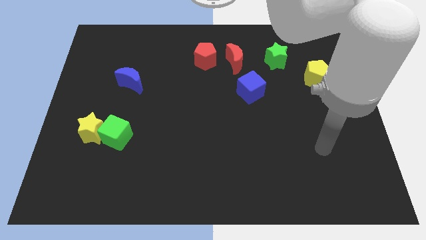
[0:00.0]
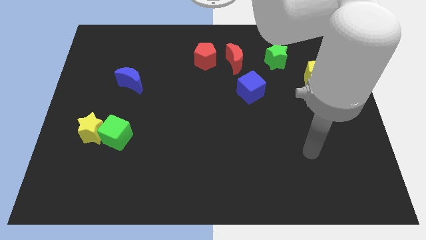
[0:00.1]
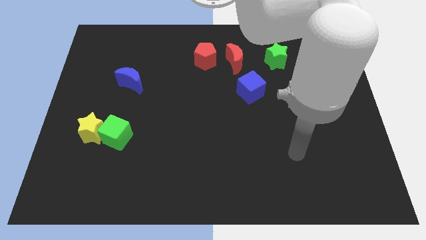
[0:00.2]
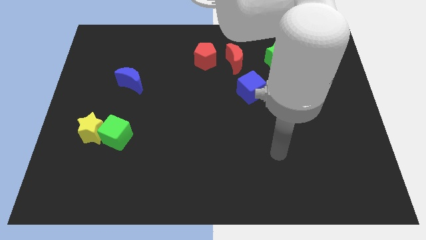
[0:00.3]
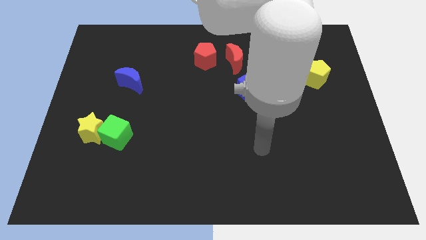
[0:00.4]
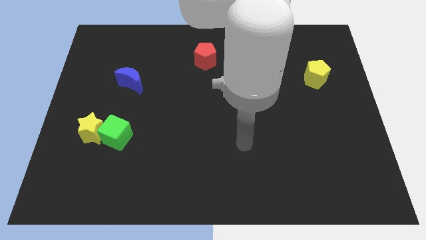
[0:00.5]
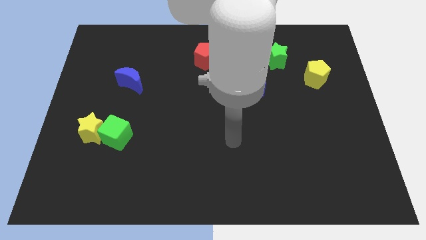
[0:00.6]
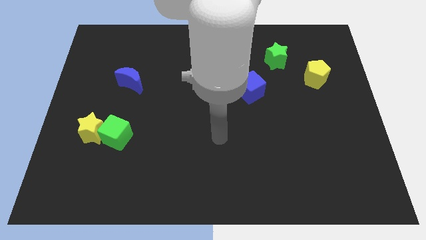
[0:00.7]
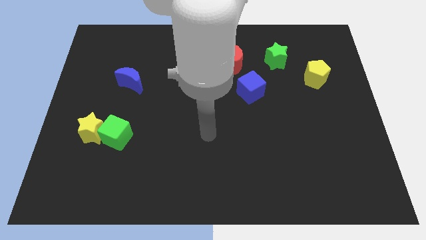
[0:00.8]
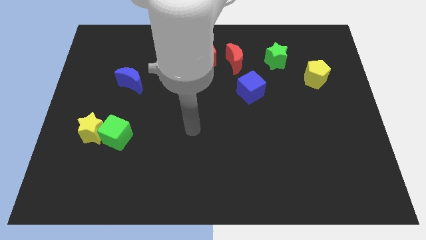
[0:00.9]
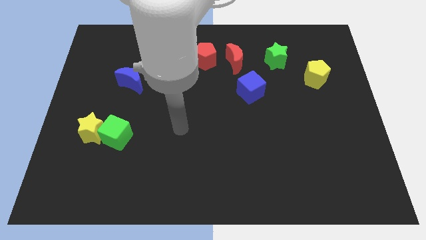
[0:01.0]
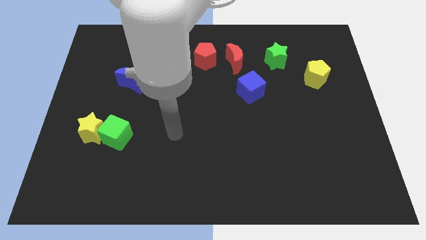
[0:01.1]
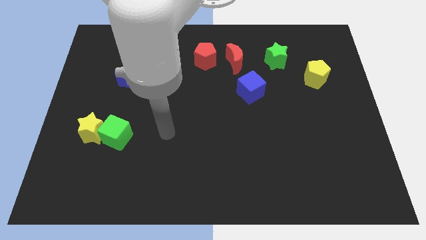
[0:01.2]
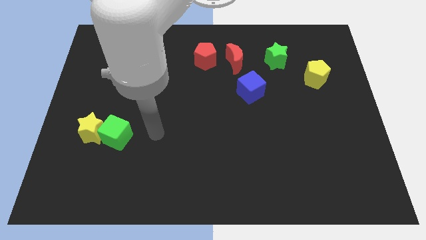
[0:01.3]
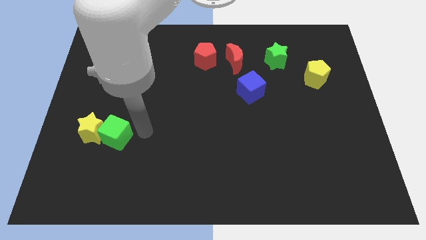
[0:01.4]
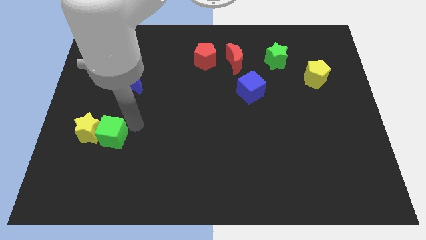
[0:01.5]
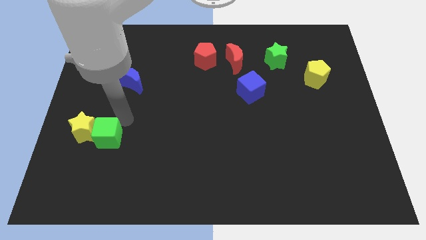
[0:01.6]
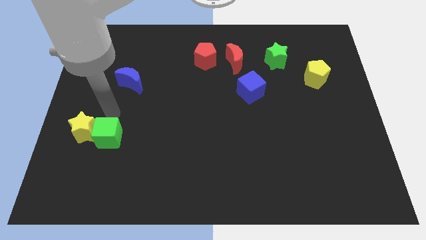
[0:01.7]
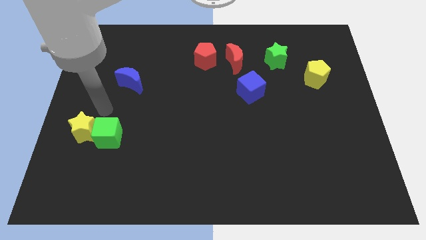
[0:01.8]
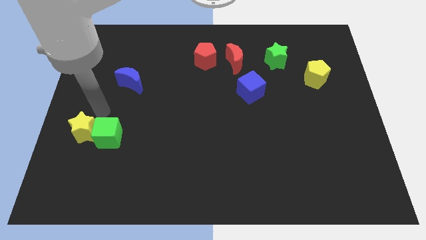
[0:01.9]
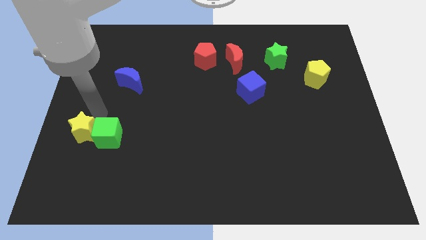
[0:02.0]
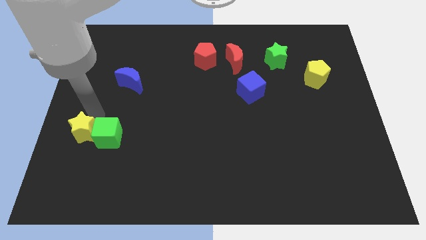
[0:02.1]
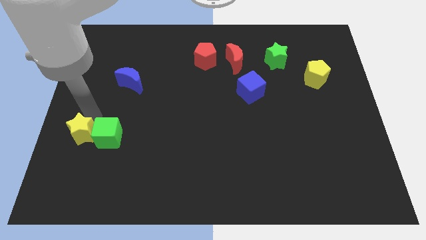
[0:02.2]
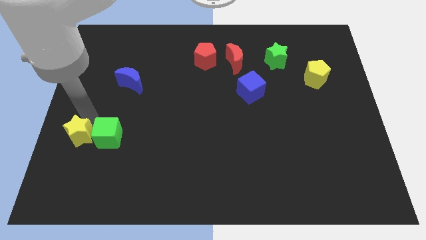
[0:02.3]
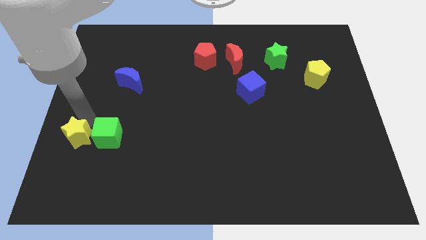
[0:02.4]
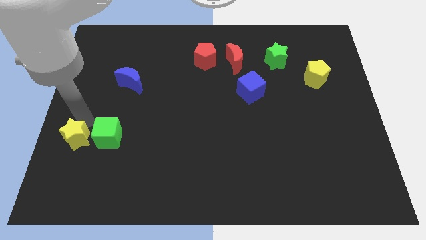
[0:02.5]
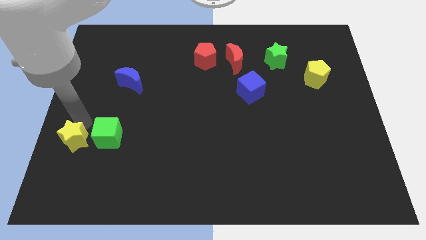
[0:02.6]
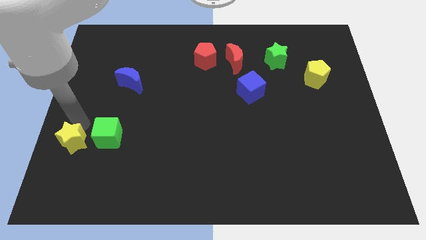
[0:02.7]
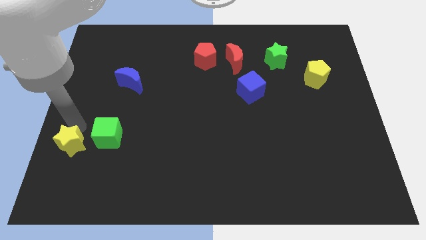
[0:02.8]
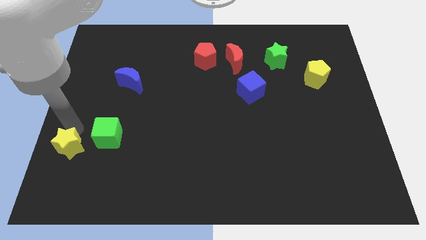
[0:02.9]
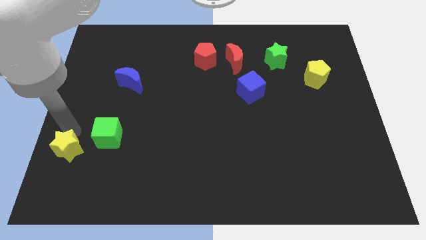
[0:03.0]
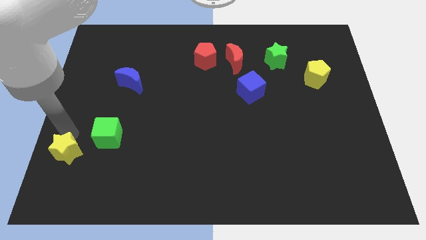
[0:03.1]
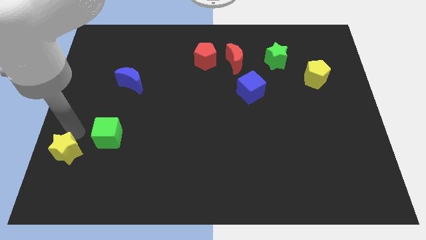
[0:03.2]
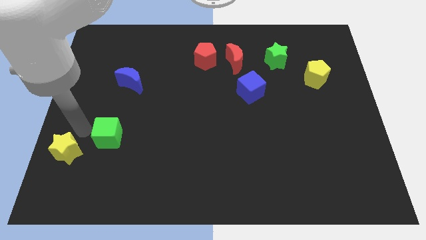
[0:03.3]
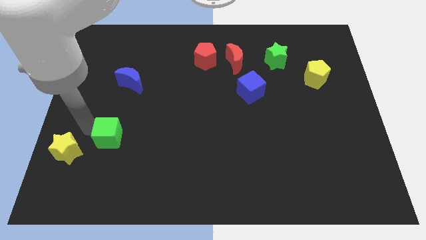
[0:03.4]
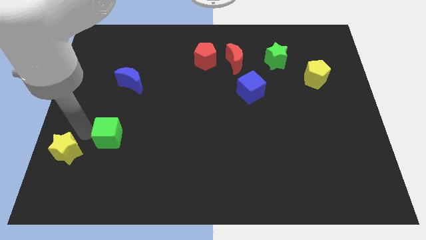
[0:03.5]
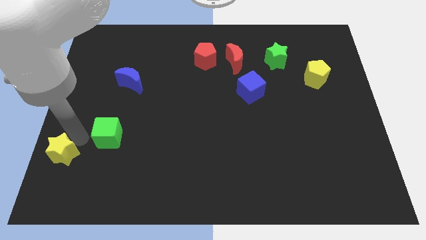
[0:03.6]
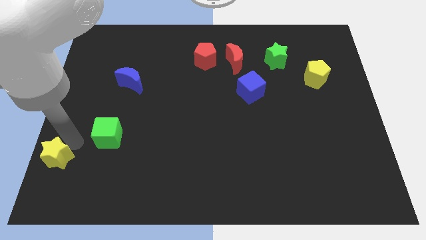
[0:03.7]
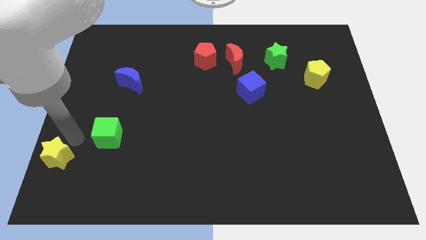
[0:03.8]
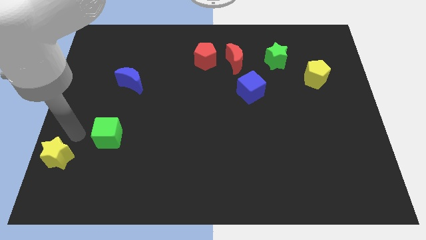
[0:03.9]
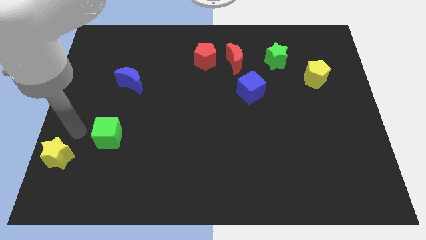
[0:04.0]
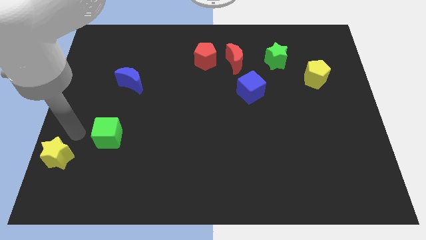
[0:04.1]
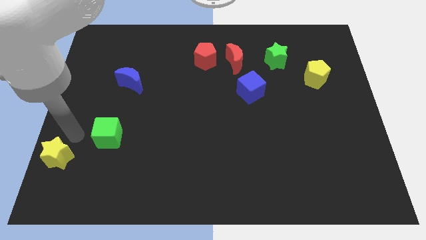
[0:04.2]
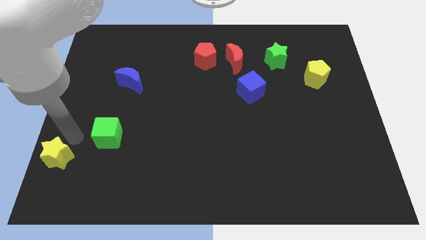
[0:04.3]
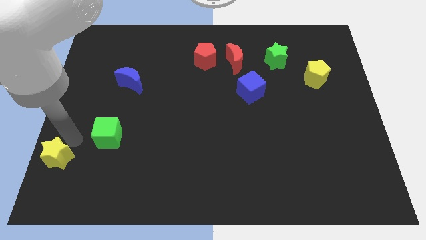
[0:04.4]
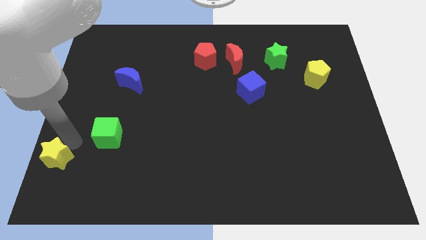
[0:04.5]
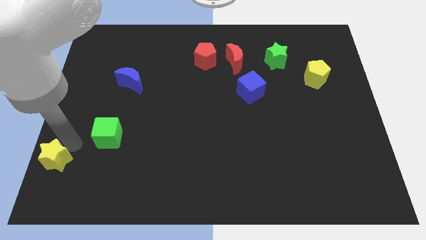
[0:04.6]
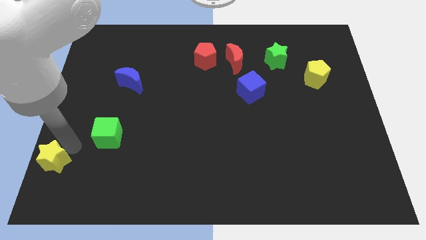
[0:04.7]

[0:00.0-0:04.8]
push the yellow star to the bottom left of the board

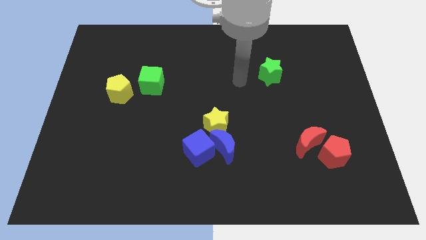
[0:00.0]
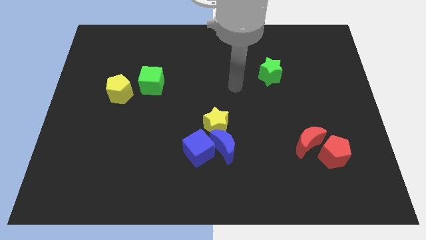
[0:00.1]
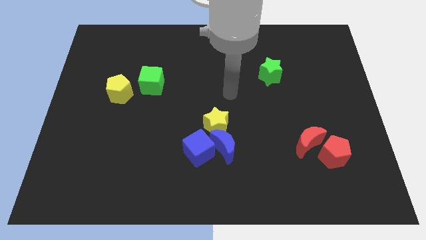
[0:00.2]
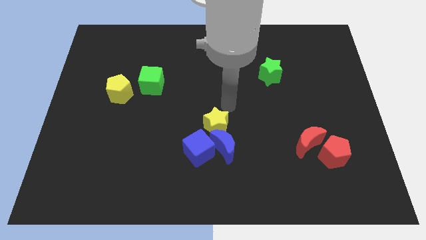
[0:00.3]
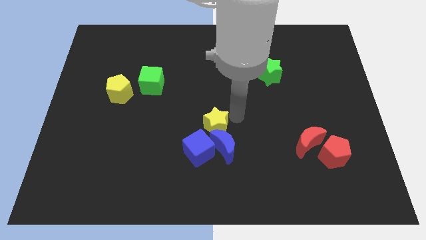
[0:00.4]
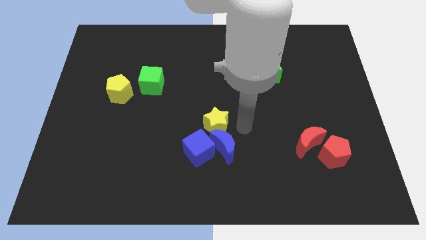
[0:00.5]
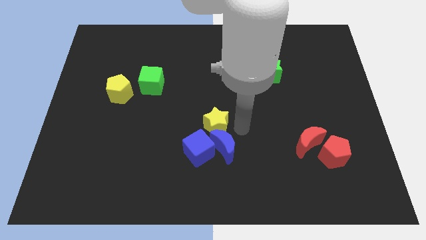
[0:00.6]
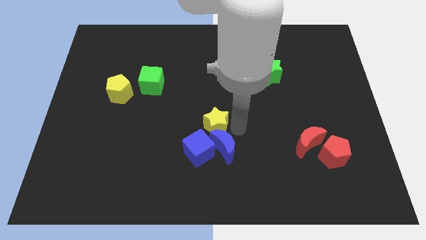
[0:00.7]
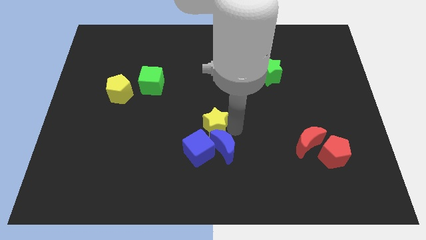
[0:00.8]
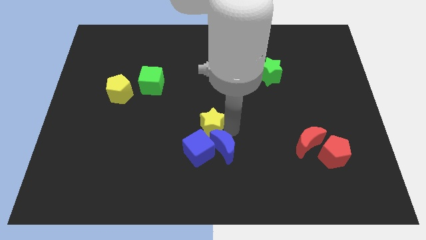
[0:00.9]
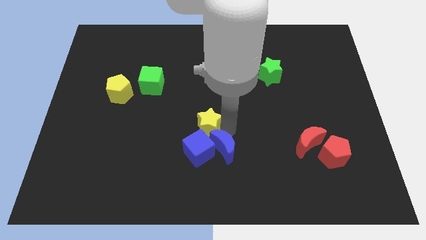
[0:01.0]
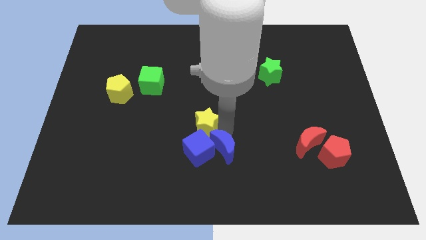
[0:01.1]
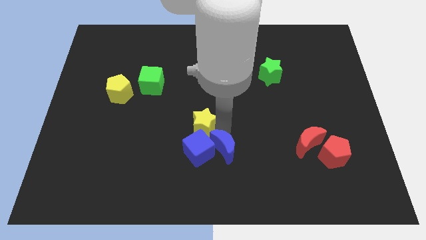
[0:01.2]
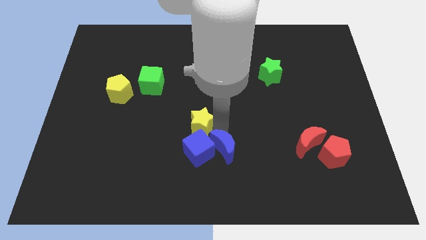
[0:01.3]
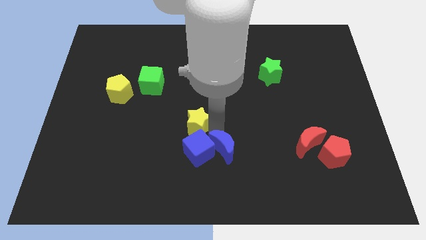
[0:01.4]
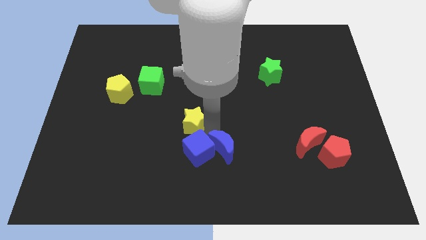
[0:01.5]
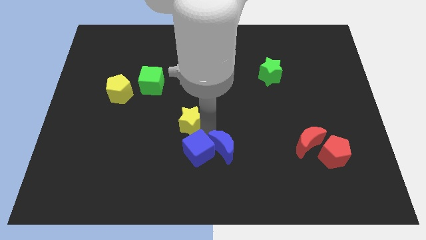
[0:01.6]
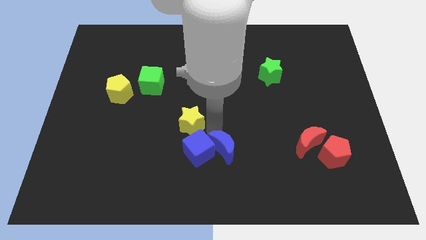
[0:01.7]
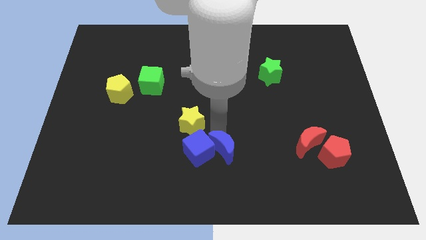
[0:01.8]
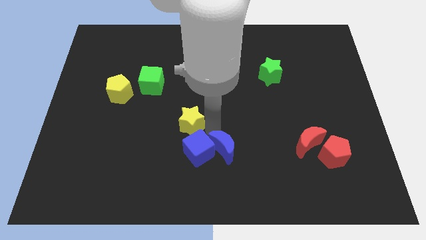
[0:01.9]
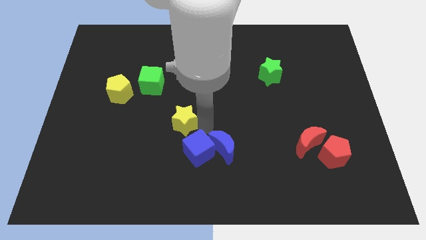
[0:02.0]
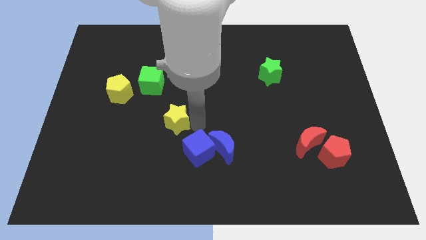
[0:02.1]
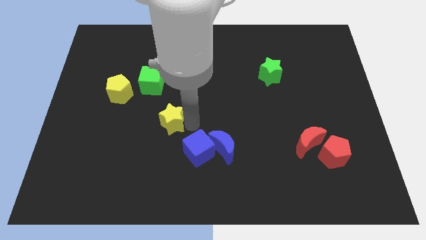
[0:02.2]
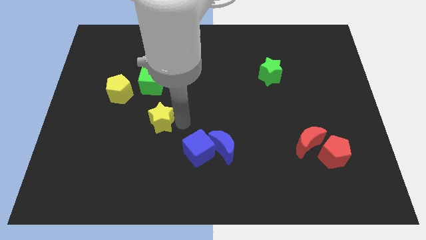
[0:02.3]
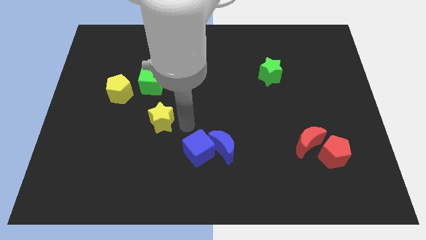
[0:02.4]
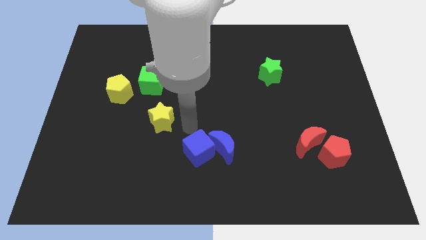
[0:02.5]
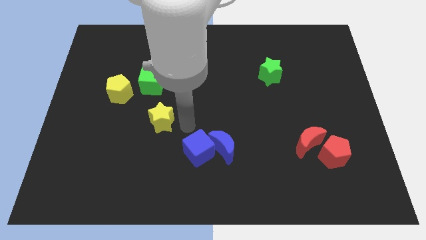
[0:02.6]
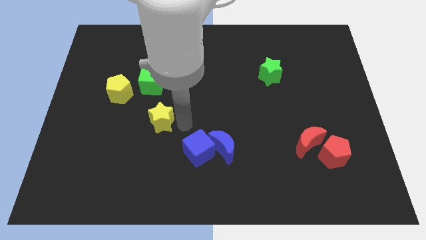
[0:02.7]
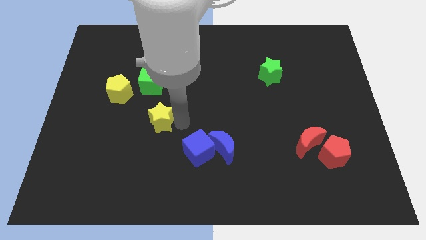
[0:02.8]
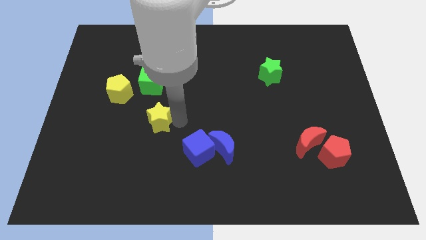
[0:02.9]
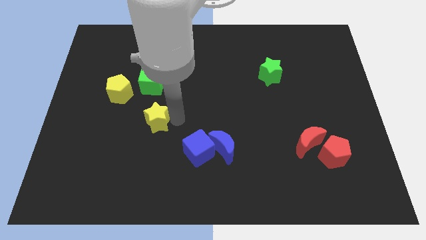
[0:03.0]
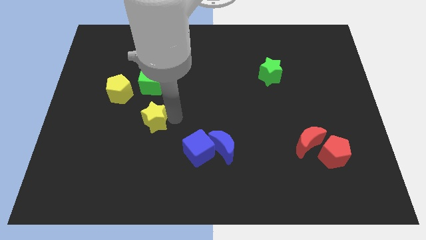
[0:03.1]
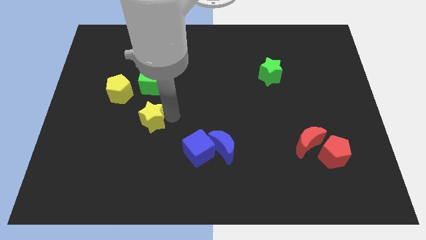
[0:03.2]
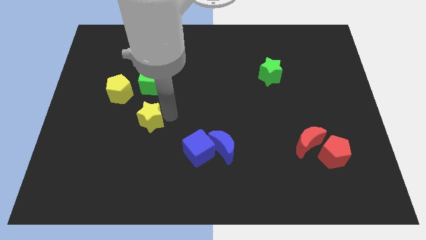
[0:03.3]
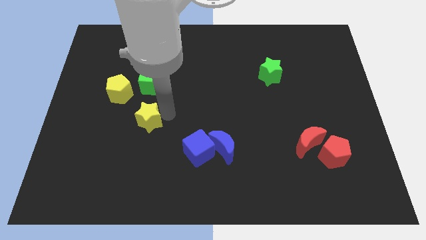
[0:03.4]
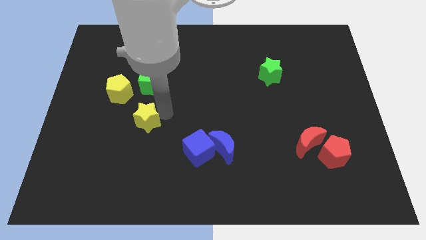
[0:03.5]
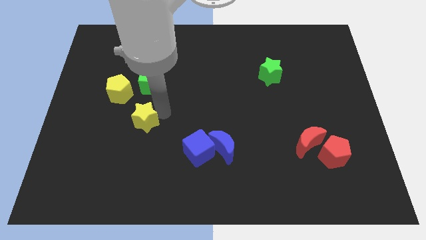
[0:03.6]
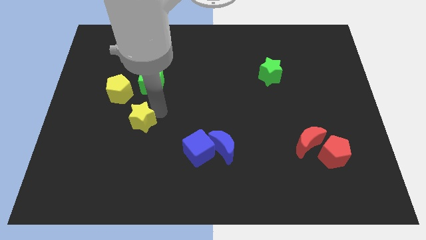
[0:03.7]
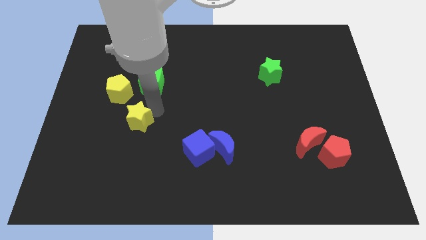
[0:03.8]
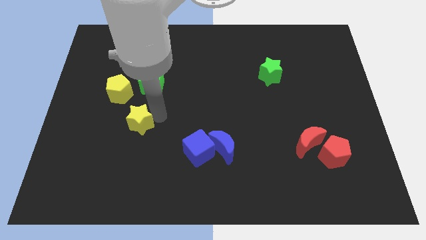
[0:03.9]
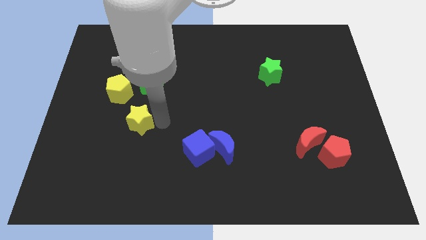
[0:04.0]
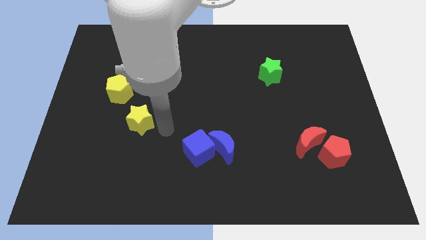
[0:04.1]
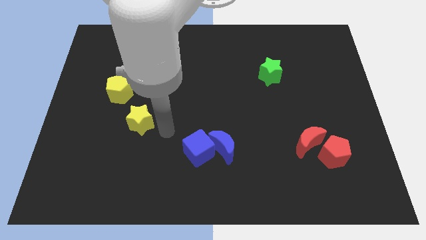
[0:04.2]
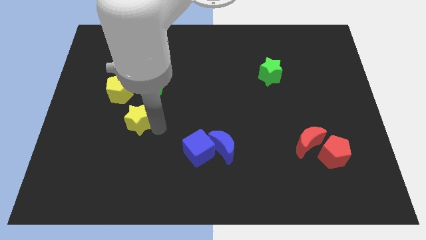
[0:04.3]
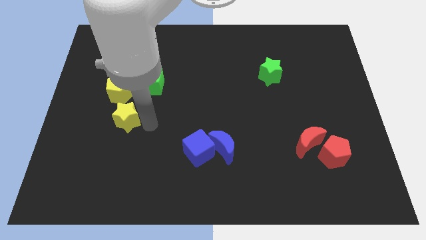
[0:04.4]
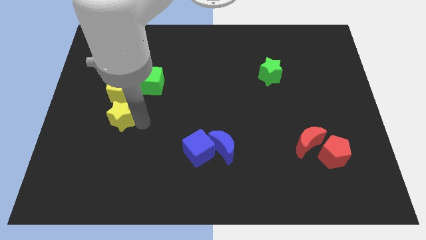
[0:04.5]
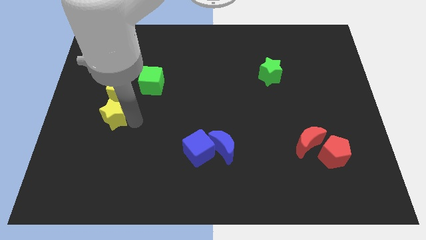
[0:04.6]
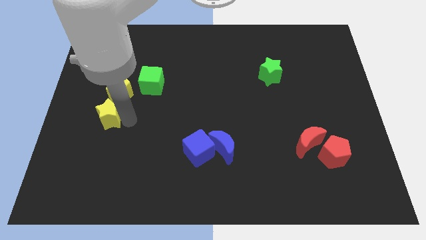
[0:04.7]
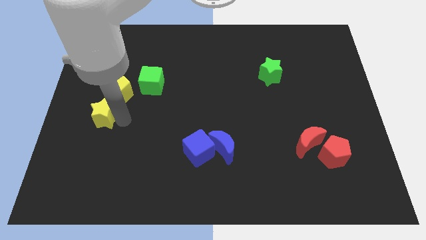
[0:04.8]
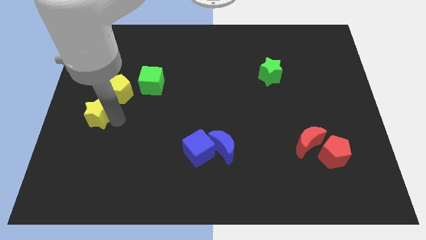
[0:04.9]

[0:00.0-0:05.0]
slide the yellow star to the center left
